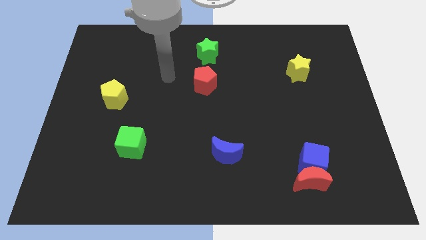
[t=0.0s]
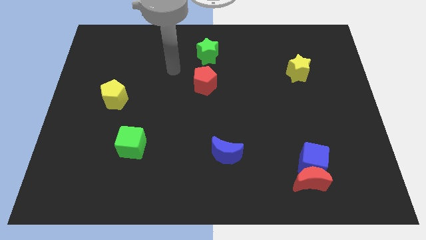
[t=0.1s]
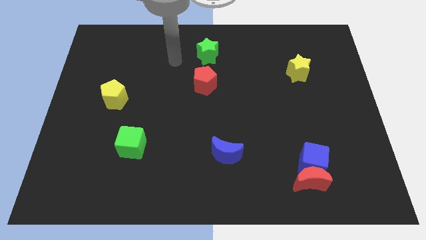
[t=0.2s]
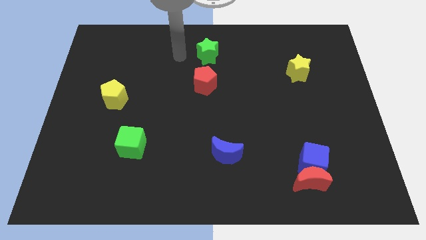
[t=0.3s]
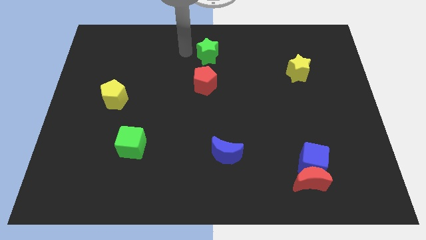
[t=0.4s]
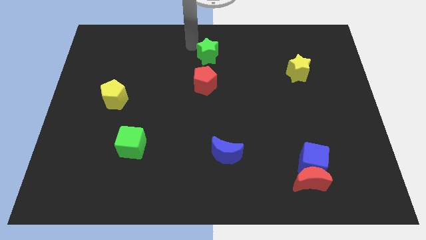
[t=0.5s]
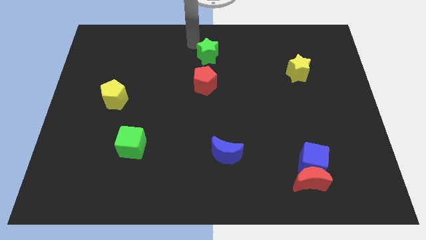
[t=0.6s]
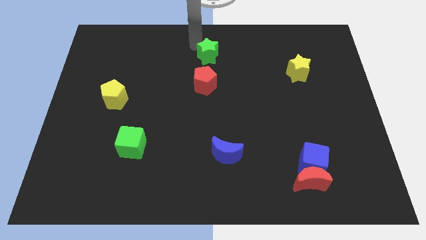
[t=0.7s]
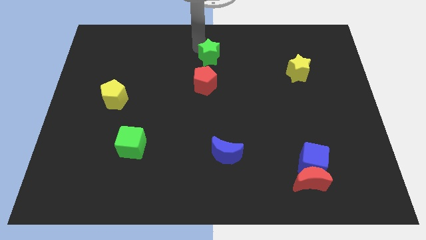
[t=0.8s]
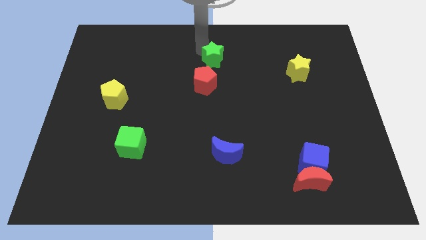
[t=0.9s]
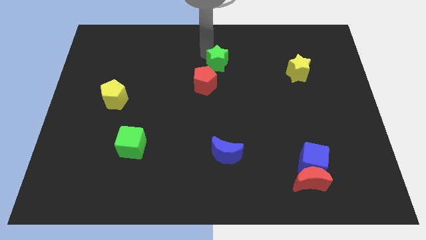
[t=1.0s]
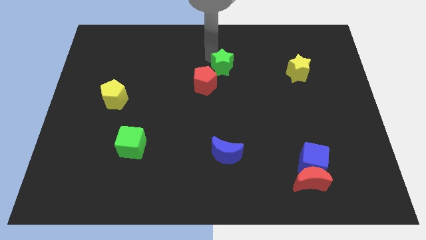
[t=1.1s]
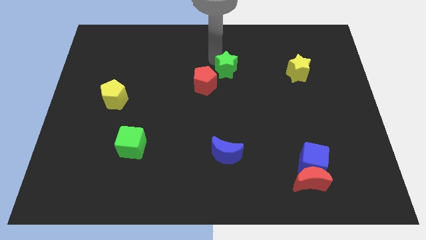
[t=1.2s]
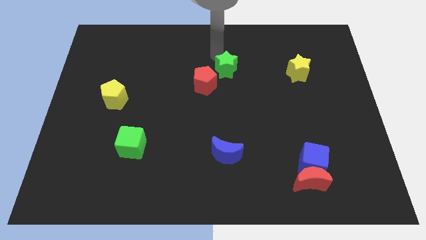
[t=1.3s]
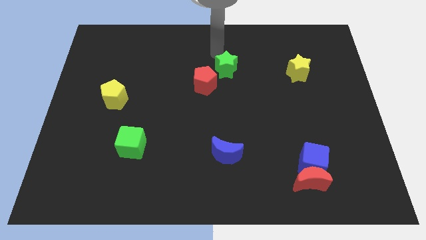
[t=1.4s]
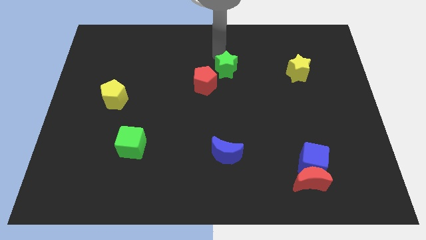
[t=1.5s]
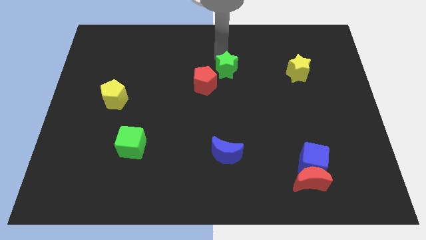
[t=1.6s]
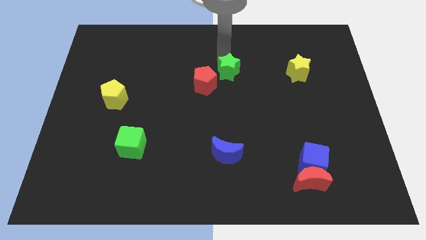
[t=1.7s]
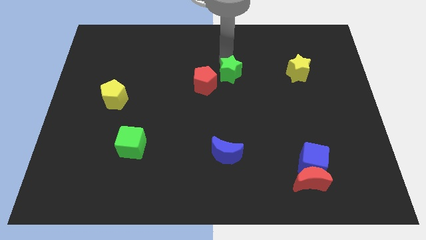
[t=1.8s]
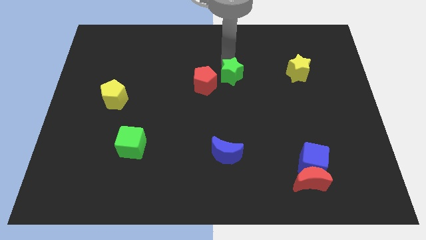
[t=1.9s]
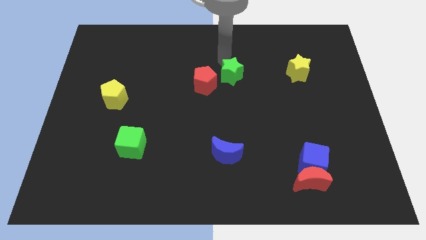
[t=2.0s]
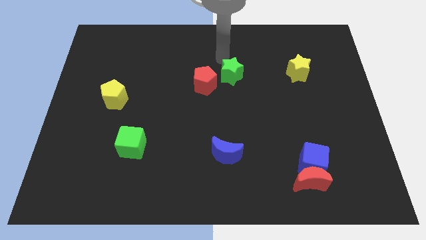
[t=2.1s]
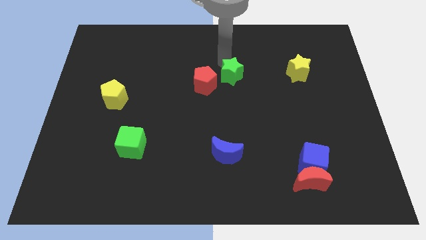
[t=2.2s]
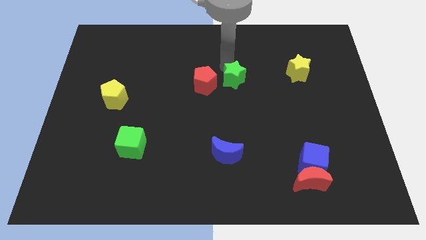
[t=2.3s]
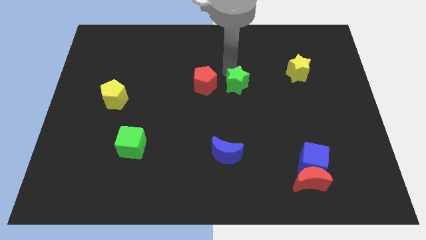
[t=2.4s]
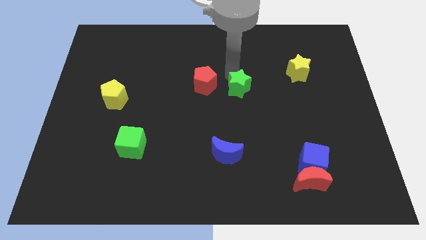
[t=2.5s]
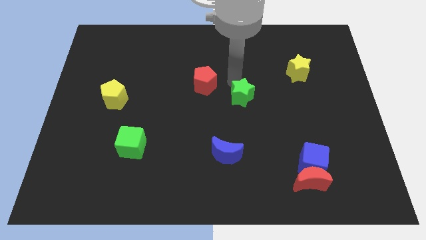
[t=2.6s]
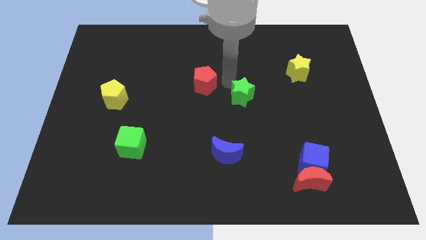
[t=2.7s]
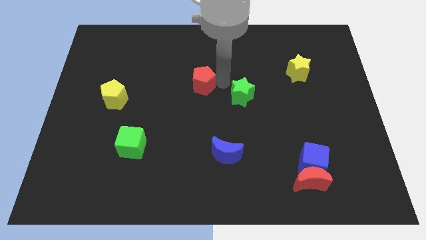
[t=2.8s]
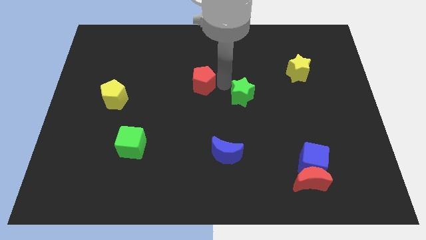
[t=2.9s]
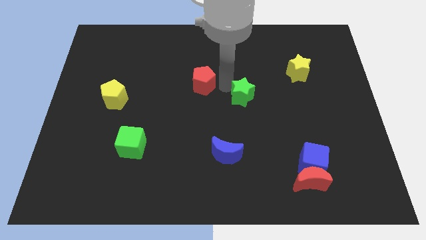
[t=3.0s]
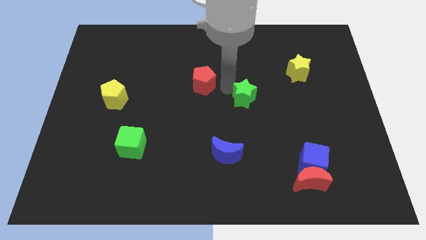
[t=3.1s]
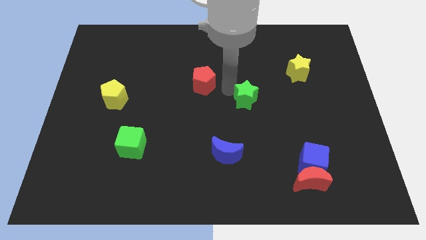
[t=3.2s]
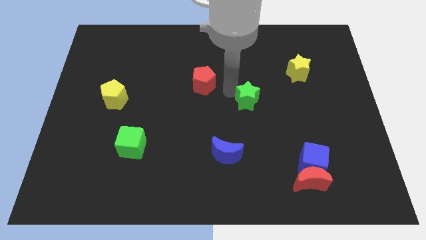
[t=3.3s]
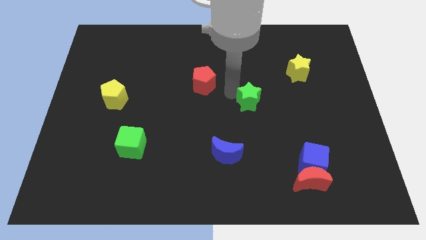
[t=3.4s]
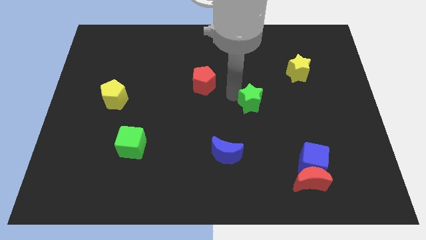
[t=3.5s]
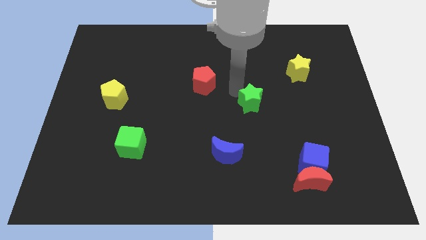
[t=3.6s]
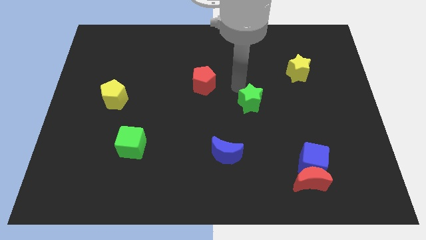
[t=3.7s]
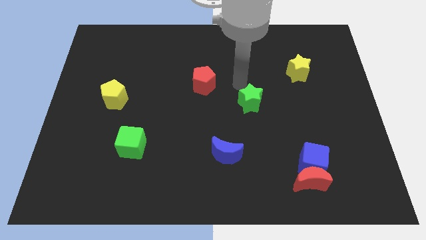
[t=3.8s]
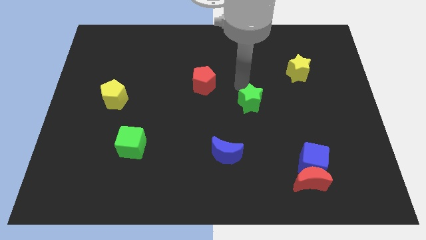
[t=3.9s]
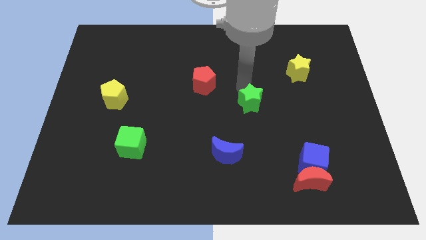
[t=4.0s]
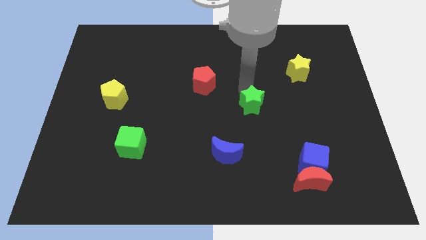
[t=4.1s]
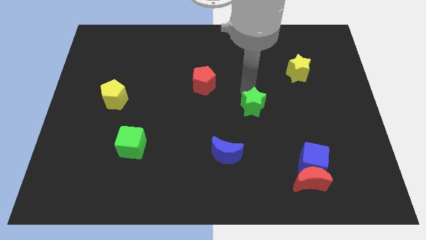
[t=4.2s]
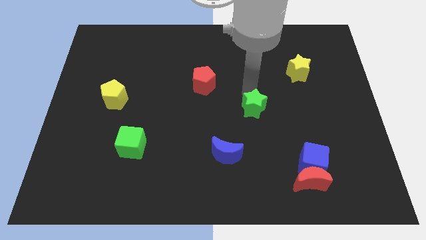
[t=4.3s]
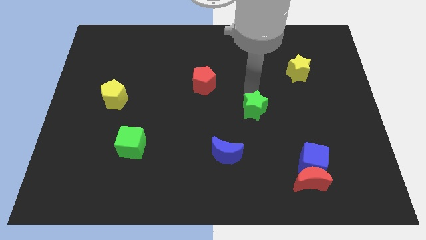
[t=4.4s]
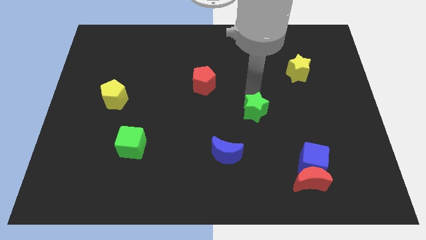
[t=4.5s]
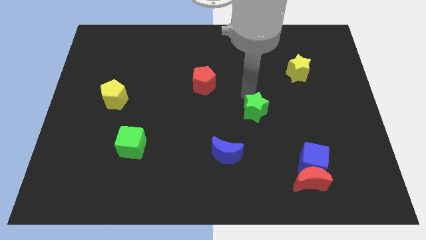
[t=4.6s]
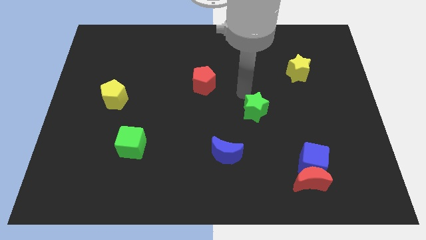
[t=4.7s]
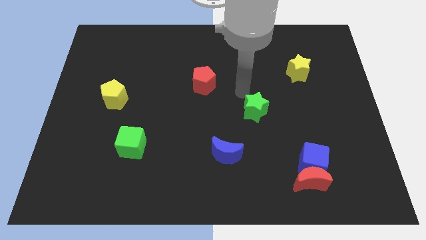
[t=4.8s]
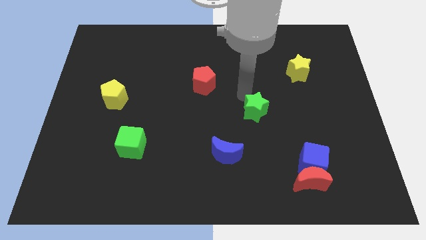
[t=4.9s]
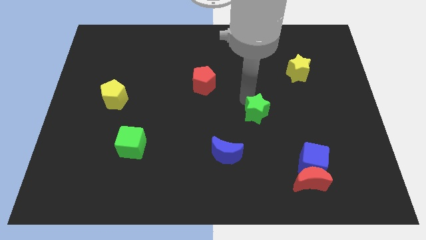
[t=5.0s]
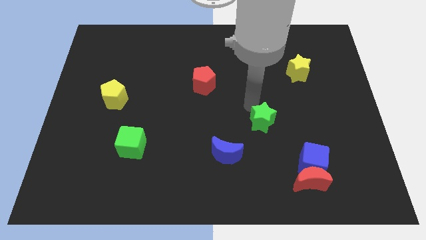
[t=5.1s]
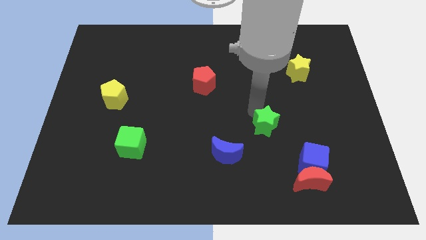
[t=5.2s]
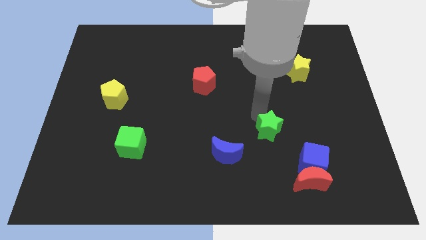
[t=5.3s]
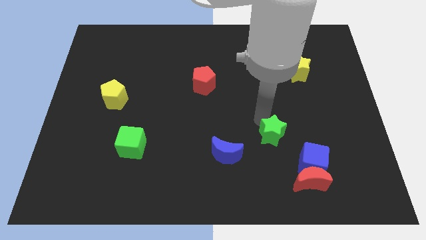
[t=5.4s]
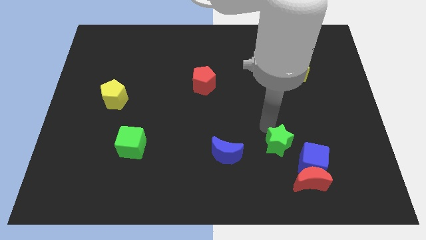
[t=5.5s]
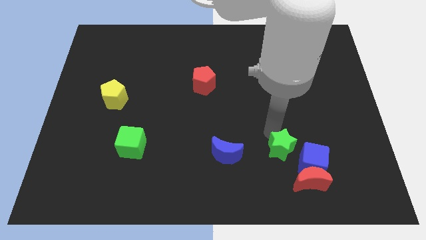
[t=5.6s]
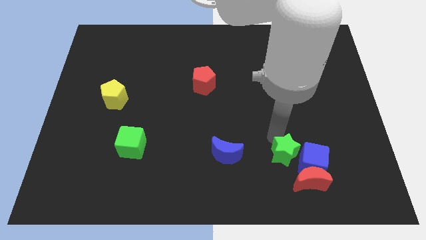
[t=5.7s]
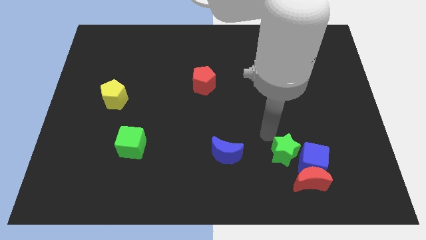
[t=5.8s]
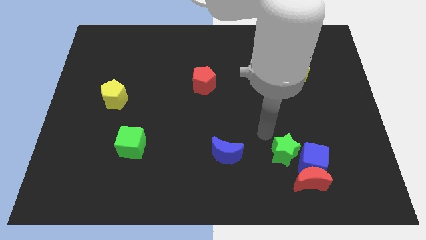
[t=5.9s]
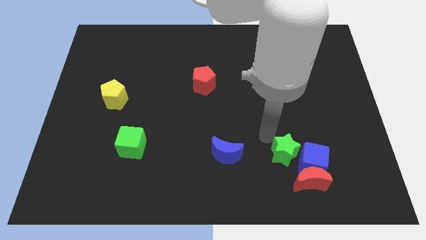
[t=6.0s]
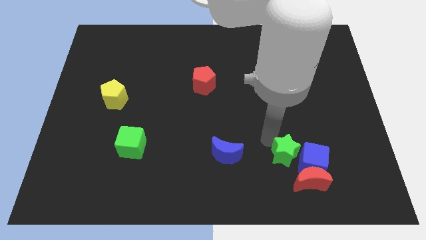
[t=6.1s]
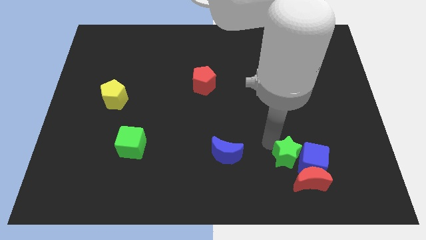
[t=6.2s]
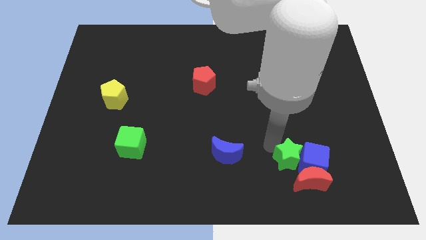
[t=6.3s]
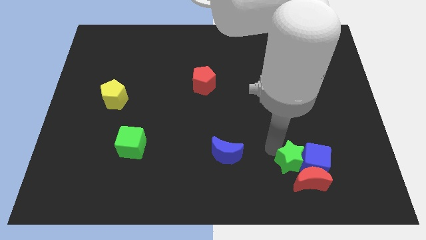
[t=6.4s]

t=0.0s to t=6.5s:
push the green star next to the red moon

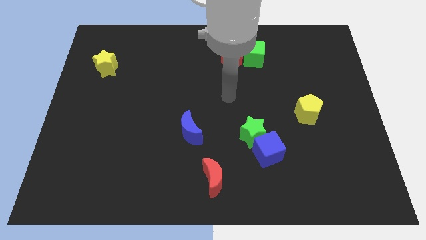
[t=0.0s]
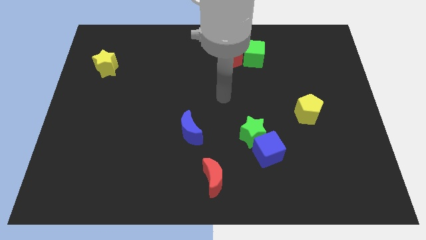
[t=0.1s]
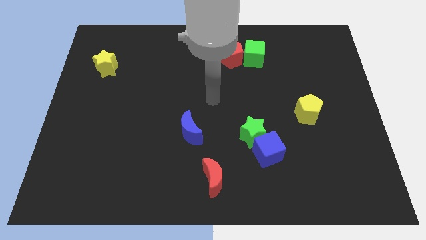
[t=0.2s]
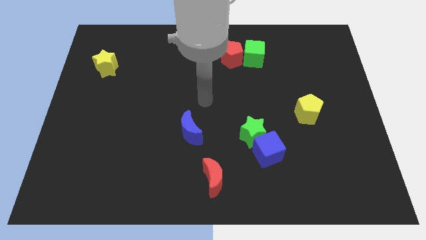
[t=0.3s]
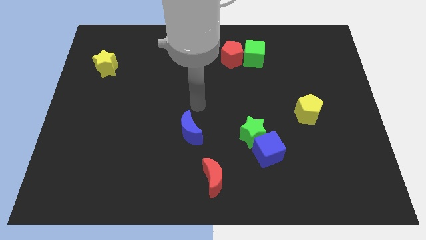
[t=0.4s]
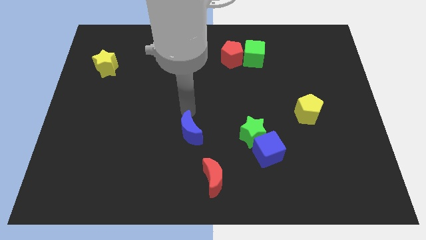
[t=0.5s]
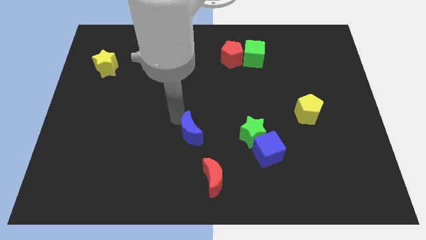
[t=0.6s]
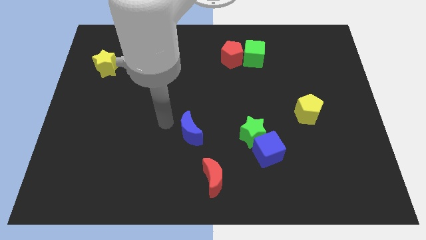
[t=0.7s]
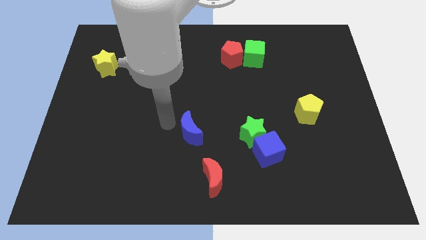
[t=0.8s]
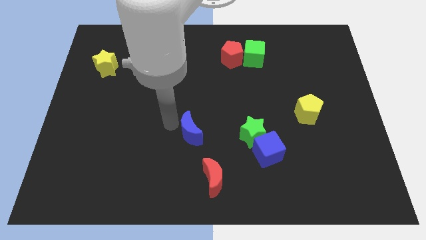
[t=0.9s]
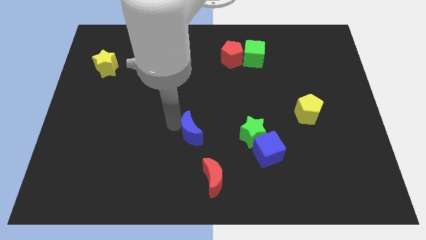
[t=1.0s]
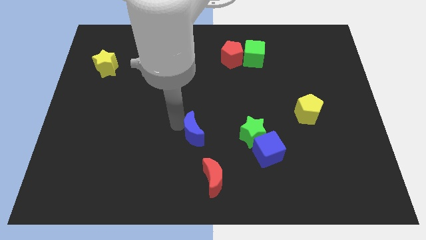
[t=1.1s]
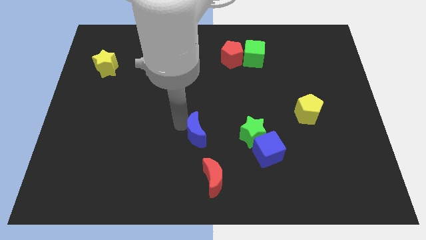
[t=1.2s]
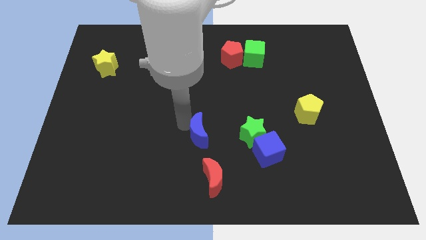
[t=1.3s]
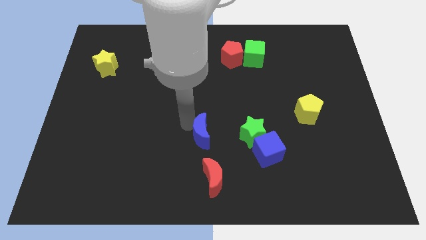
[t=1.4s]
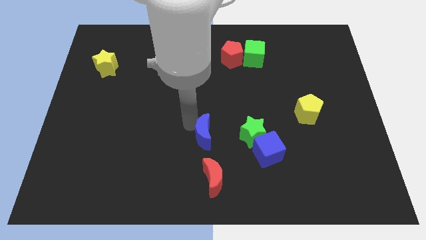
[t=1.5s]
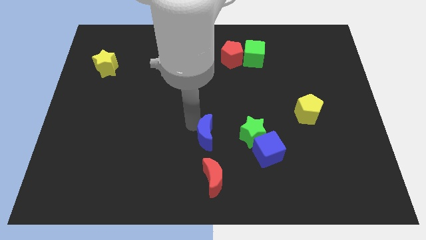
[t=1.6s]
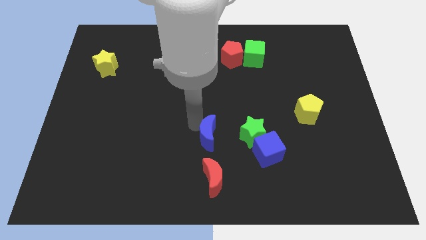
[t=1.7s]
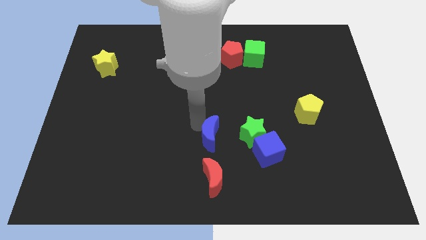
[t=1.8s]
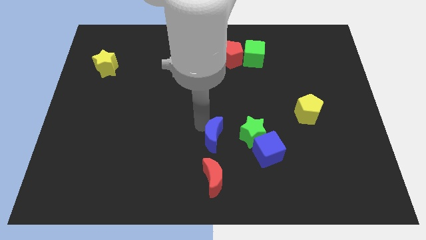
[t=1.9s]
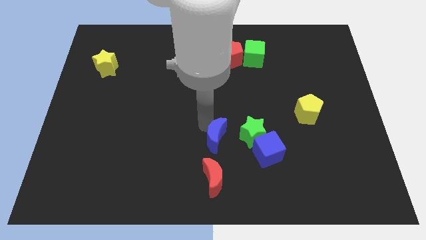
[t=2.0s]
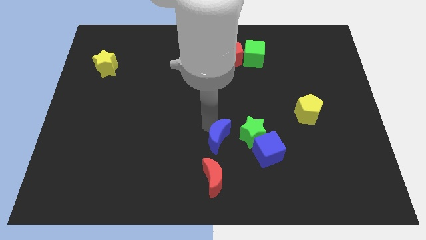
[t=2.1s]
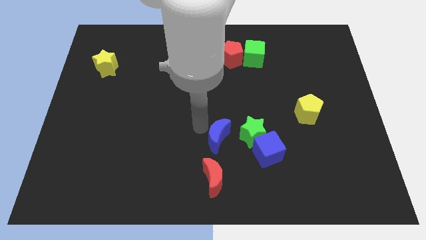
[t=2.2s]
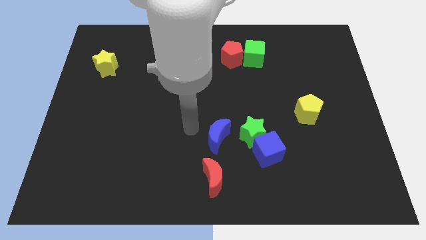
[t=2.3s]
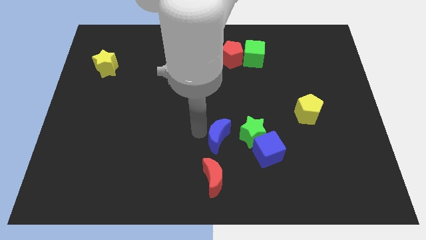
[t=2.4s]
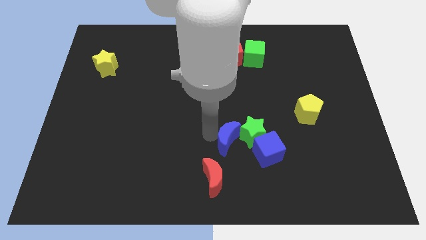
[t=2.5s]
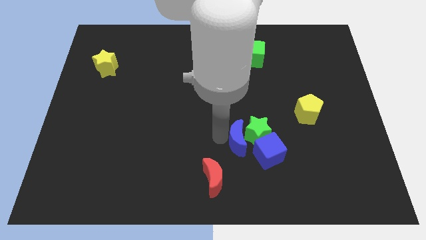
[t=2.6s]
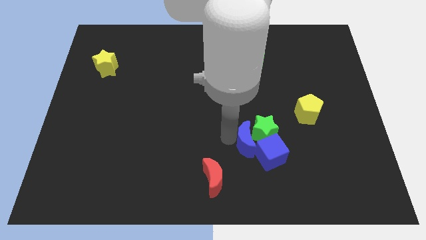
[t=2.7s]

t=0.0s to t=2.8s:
slide the blue moon to the blue cube
